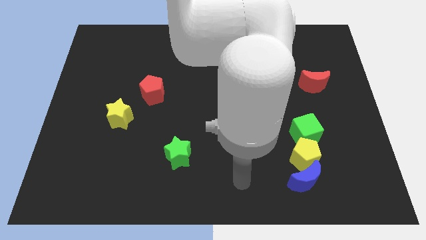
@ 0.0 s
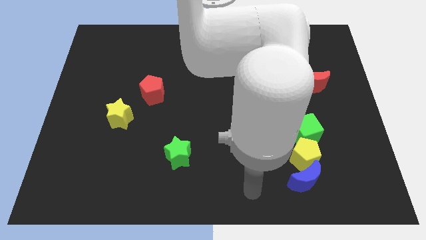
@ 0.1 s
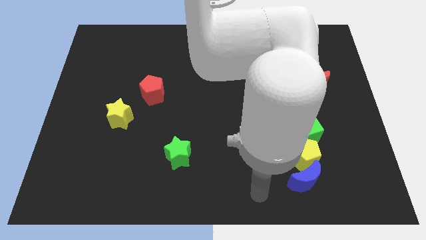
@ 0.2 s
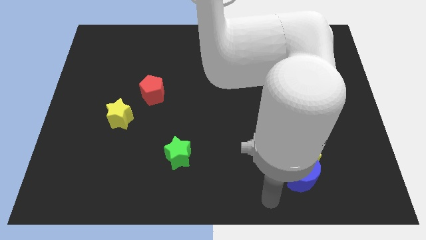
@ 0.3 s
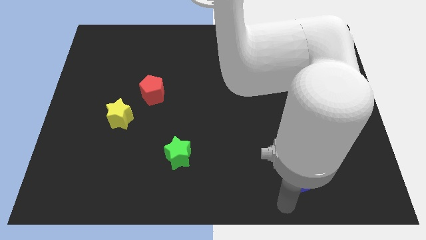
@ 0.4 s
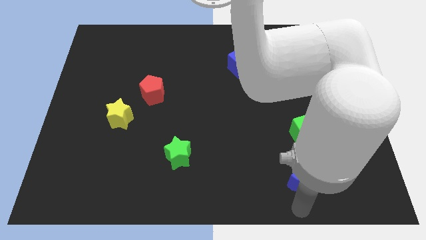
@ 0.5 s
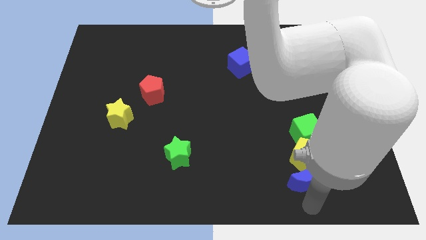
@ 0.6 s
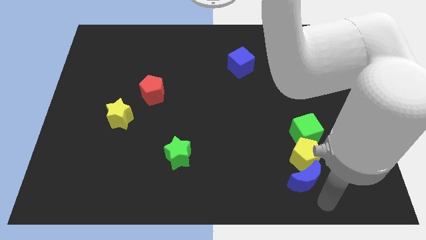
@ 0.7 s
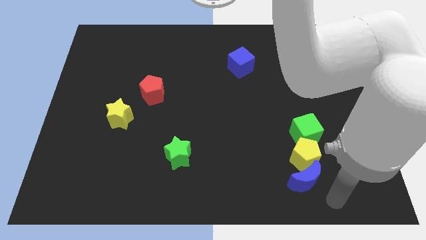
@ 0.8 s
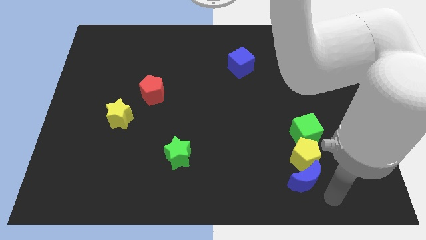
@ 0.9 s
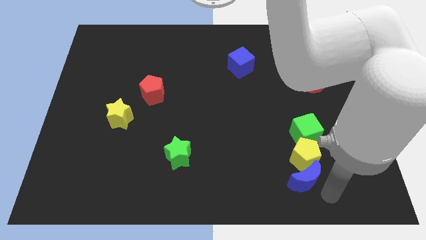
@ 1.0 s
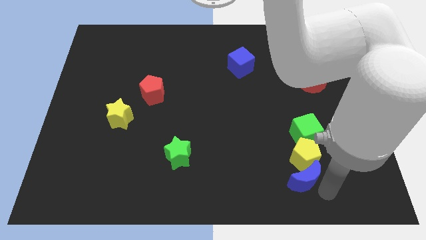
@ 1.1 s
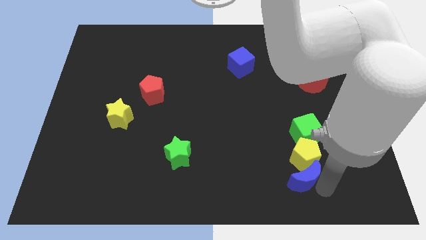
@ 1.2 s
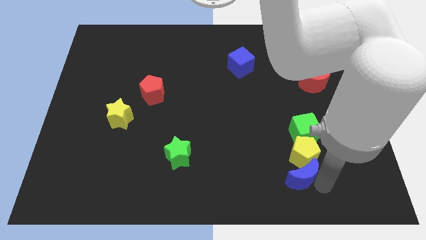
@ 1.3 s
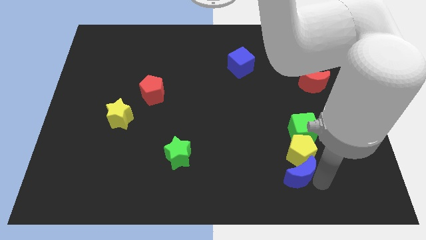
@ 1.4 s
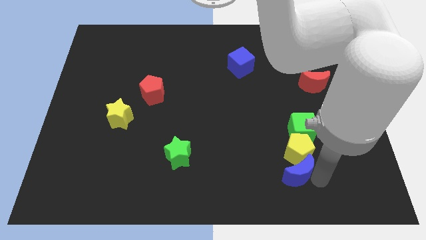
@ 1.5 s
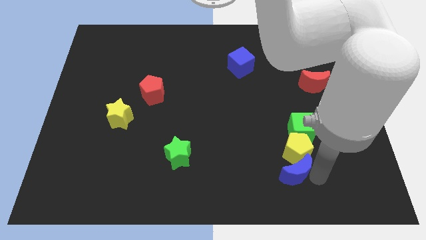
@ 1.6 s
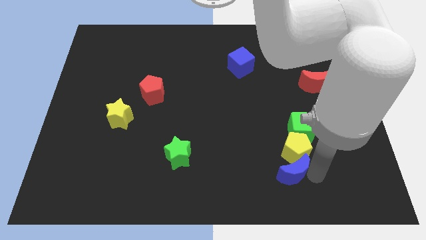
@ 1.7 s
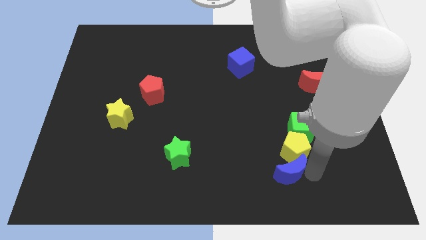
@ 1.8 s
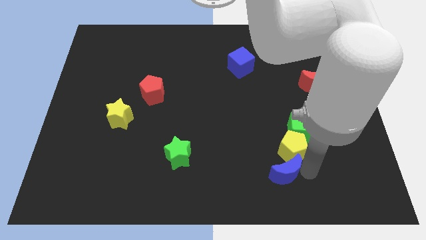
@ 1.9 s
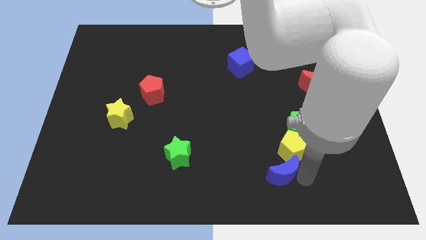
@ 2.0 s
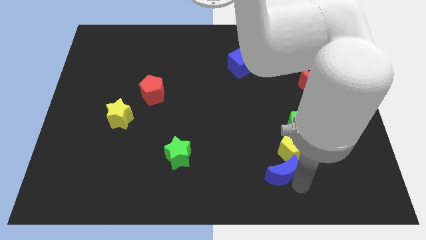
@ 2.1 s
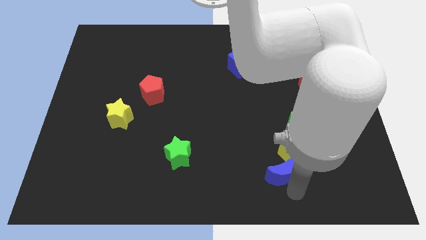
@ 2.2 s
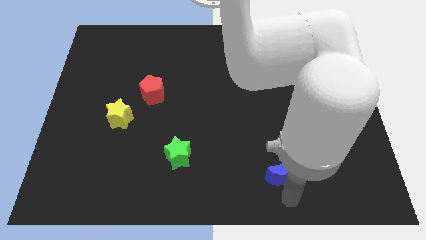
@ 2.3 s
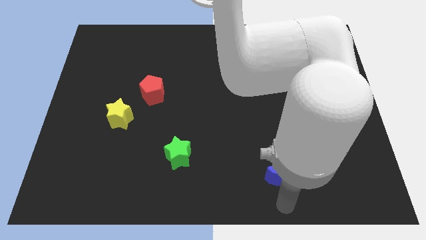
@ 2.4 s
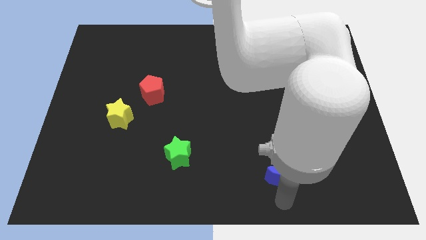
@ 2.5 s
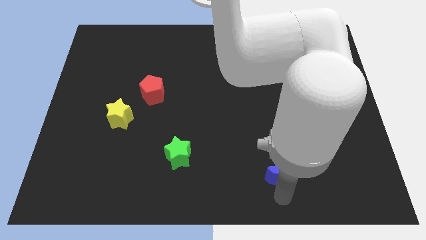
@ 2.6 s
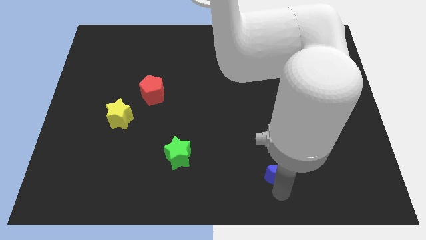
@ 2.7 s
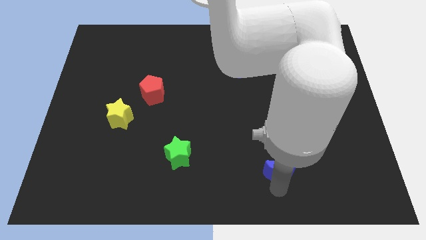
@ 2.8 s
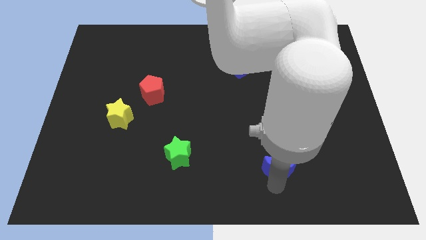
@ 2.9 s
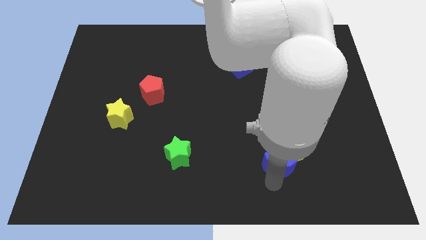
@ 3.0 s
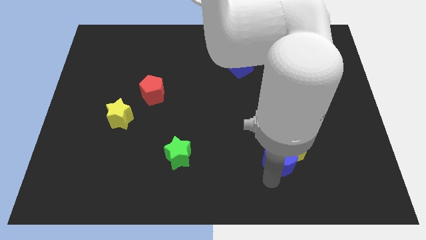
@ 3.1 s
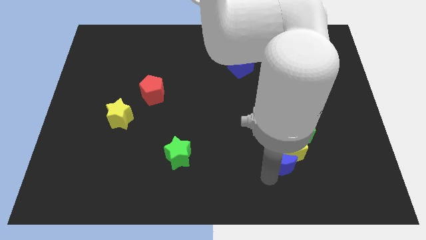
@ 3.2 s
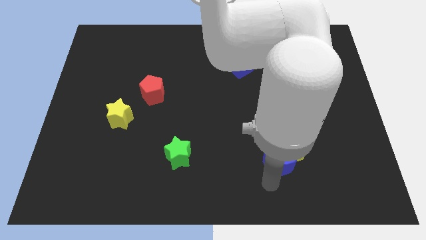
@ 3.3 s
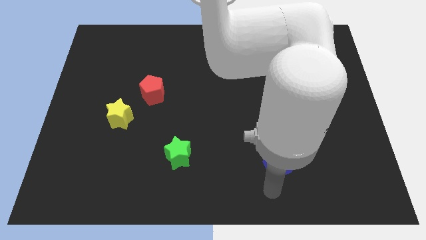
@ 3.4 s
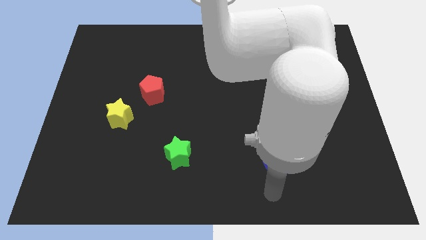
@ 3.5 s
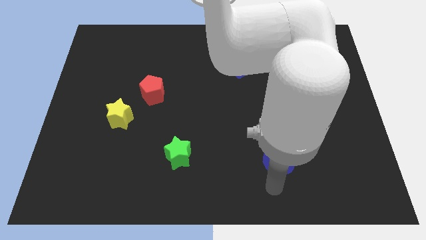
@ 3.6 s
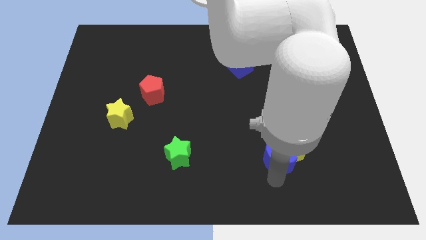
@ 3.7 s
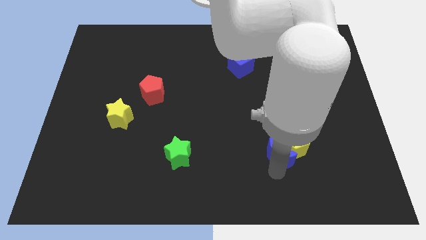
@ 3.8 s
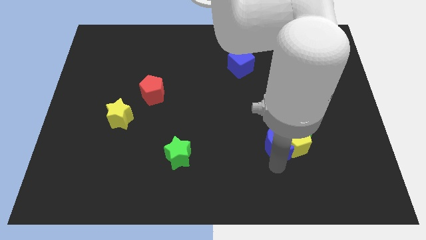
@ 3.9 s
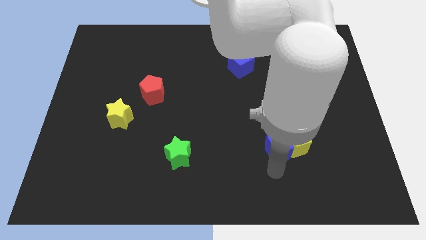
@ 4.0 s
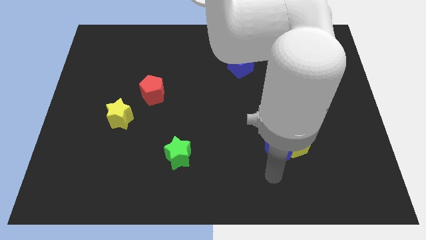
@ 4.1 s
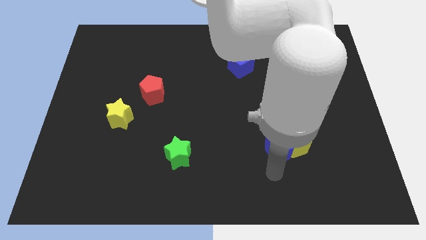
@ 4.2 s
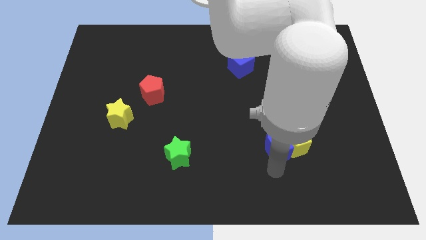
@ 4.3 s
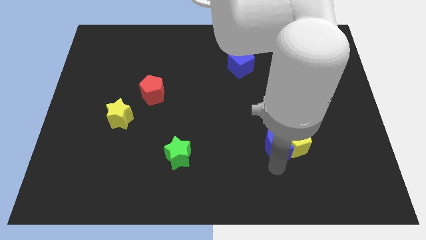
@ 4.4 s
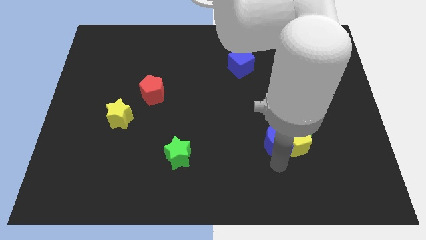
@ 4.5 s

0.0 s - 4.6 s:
push the blue moon upwards a little

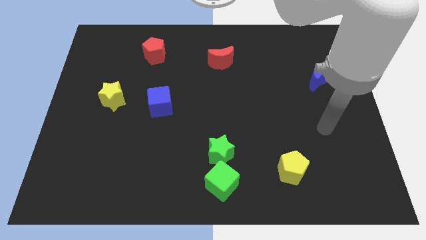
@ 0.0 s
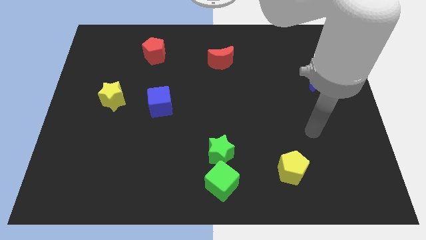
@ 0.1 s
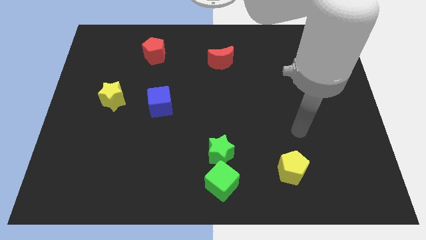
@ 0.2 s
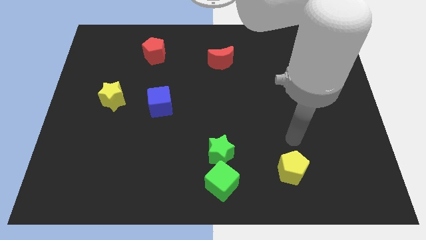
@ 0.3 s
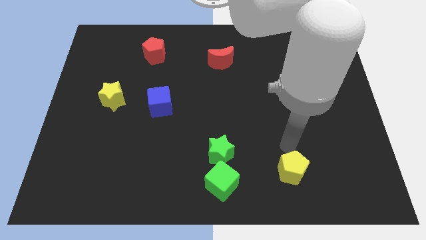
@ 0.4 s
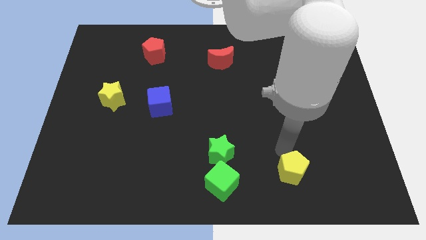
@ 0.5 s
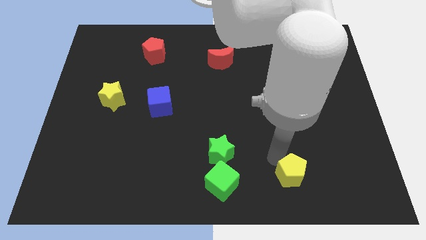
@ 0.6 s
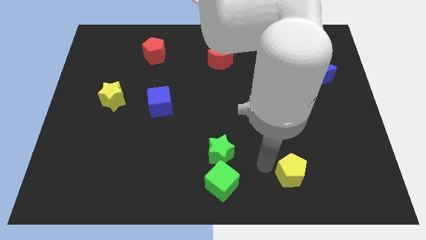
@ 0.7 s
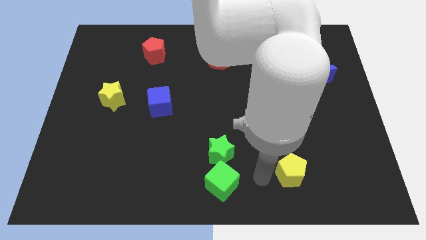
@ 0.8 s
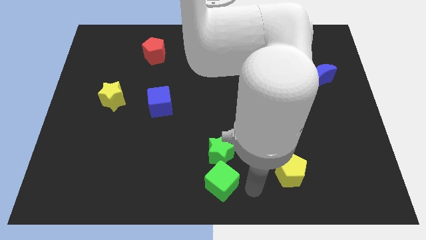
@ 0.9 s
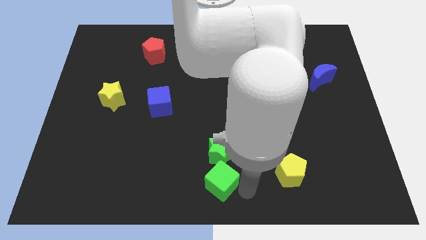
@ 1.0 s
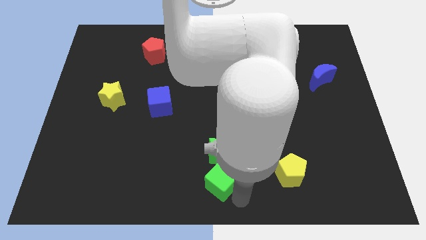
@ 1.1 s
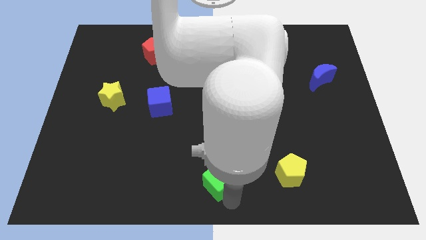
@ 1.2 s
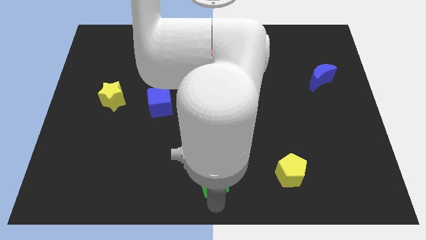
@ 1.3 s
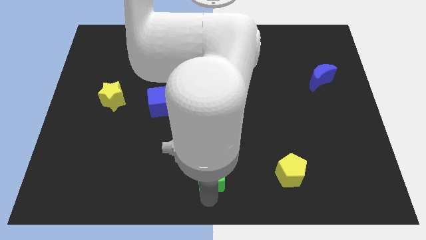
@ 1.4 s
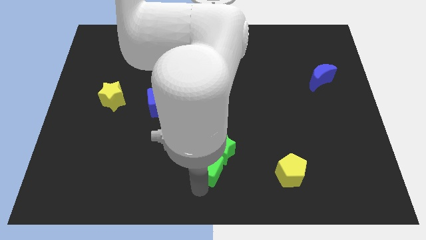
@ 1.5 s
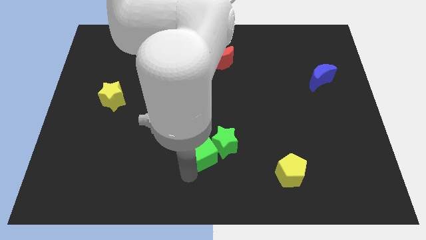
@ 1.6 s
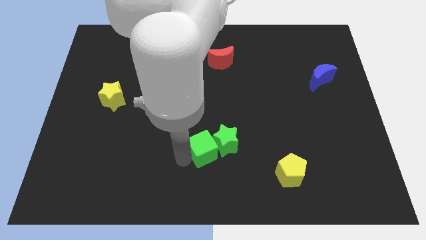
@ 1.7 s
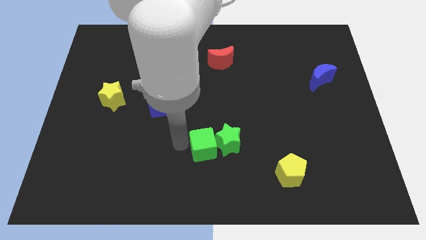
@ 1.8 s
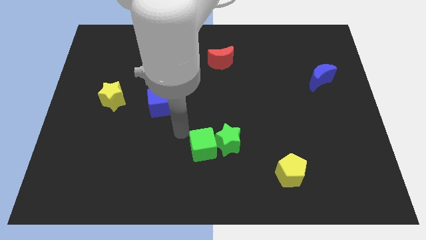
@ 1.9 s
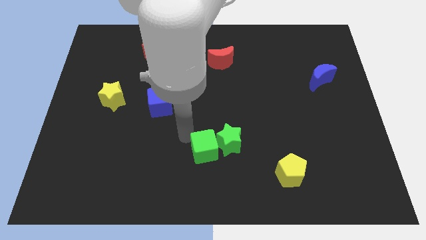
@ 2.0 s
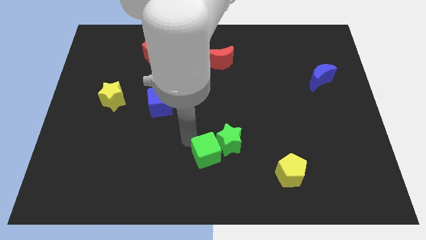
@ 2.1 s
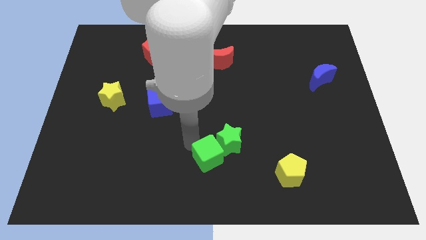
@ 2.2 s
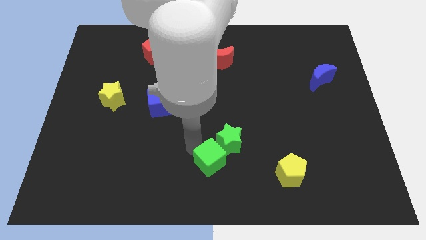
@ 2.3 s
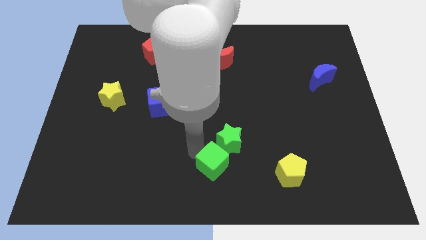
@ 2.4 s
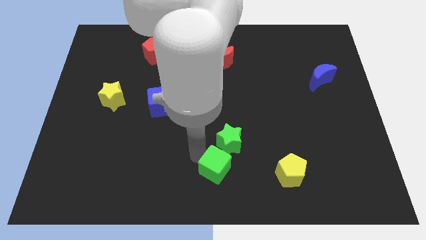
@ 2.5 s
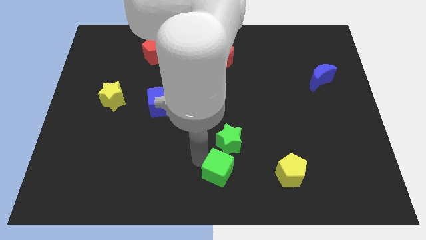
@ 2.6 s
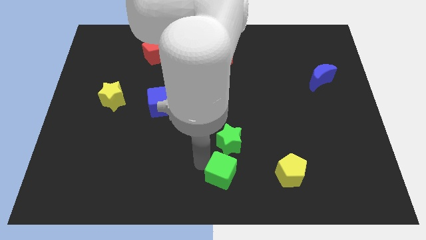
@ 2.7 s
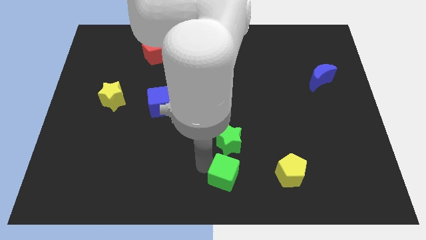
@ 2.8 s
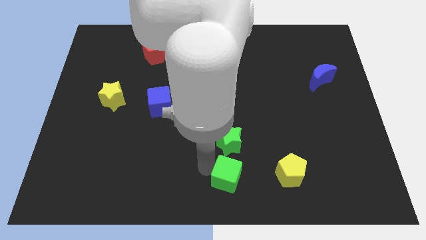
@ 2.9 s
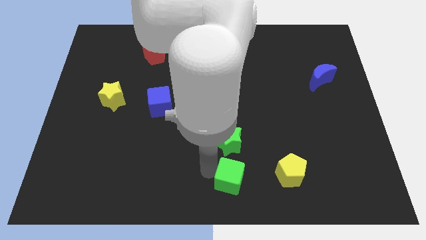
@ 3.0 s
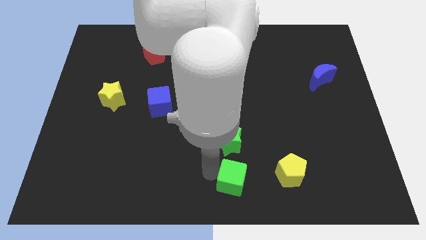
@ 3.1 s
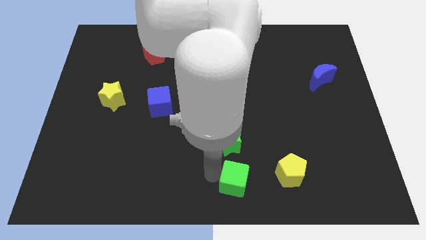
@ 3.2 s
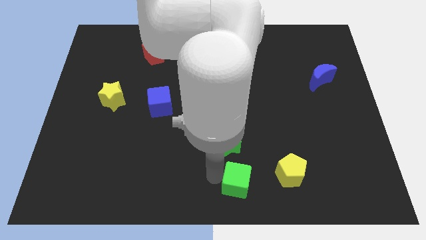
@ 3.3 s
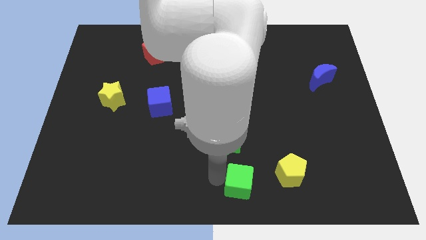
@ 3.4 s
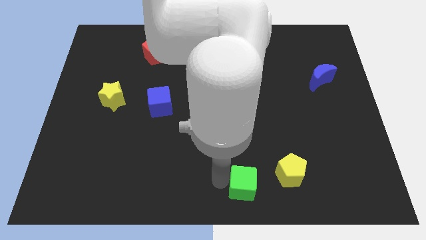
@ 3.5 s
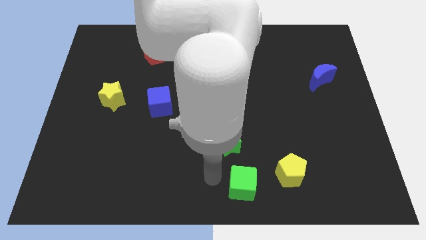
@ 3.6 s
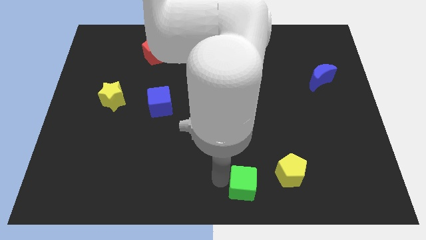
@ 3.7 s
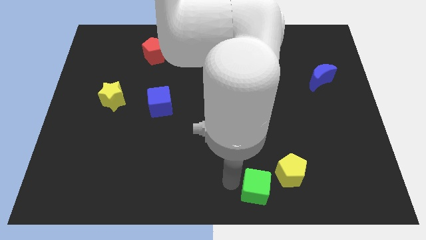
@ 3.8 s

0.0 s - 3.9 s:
slide the green cube right a little bit

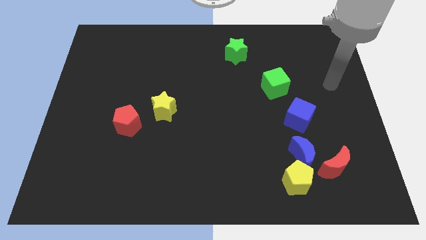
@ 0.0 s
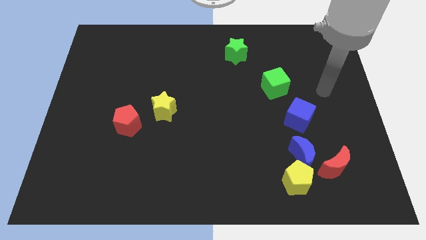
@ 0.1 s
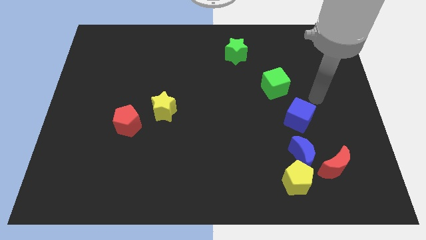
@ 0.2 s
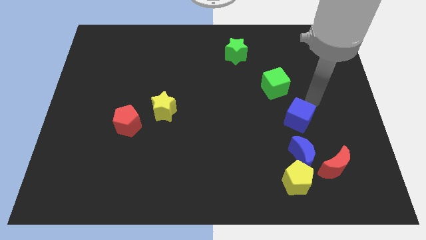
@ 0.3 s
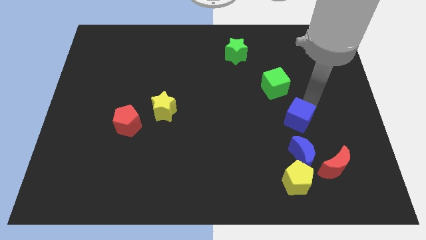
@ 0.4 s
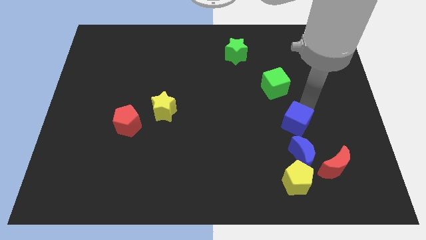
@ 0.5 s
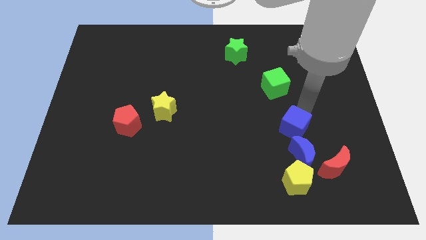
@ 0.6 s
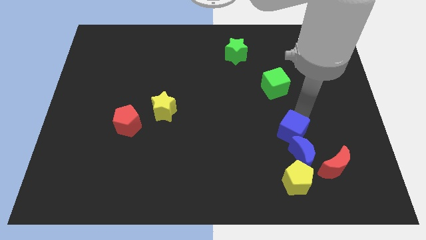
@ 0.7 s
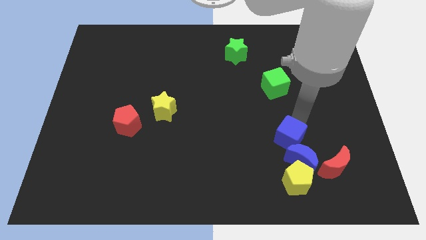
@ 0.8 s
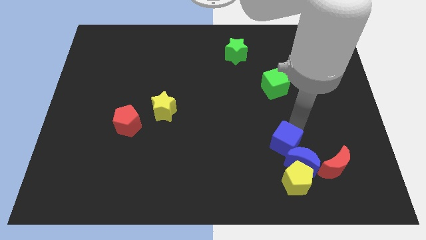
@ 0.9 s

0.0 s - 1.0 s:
slightly push the blue cube downwards and then to the left
